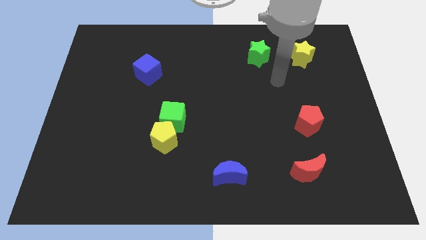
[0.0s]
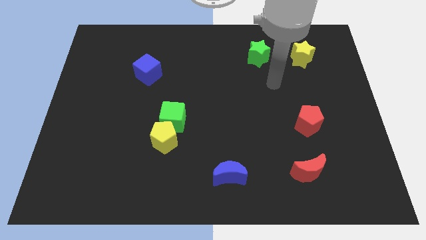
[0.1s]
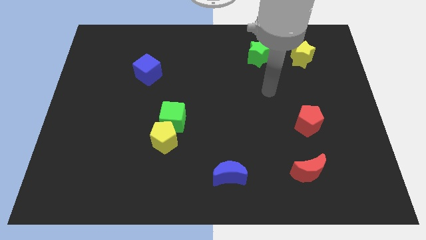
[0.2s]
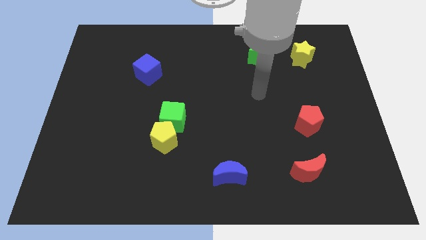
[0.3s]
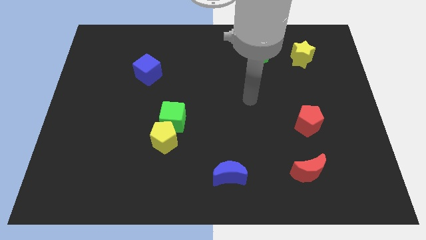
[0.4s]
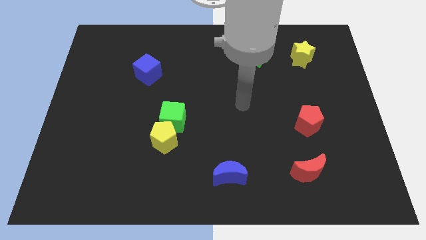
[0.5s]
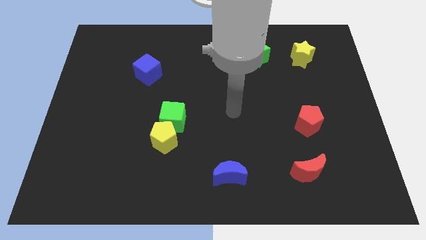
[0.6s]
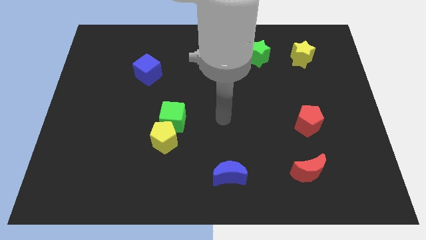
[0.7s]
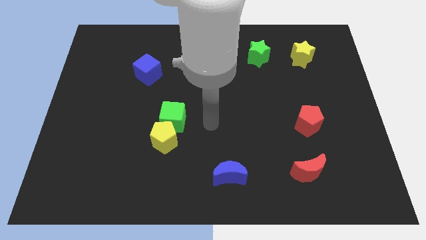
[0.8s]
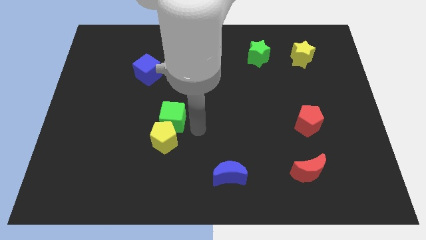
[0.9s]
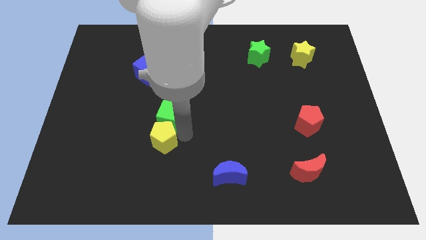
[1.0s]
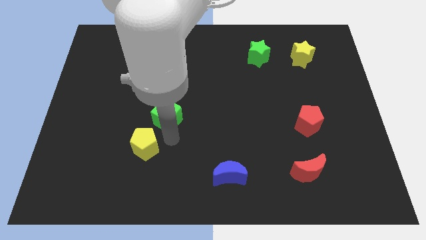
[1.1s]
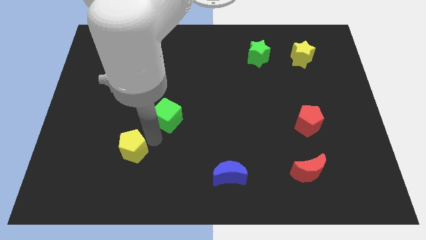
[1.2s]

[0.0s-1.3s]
separate the green cube from the yellow pentagon

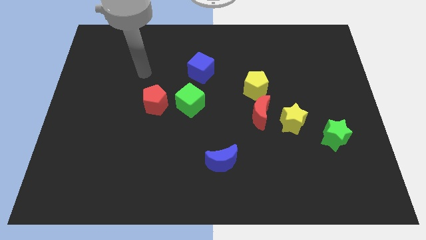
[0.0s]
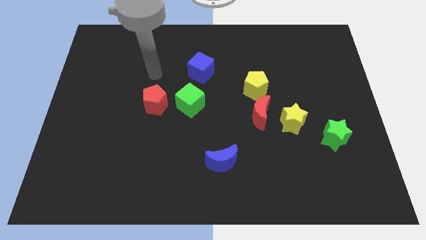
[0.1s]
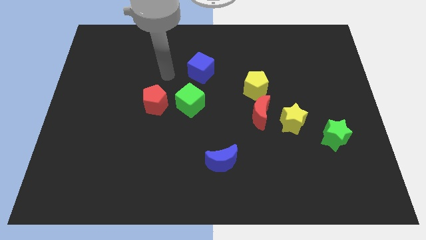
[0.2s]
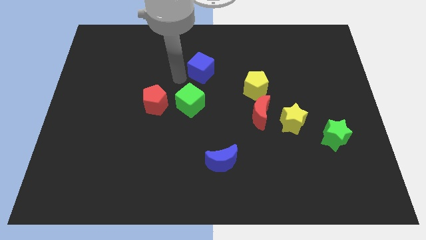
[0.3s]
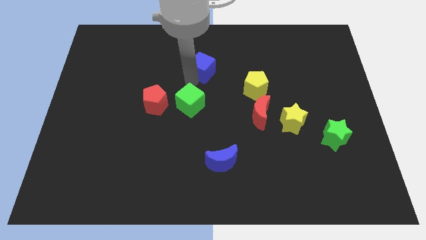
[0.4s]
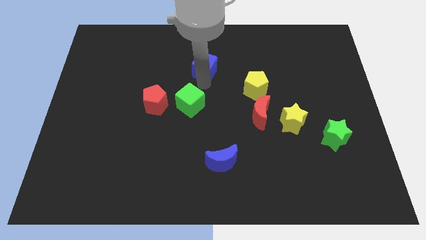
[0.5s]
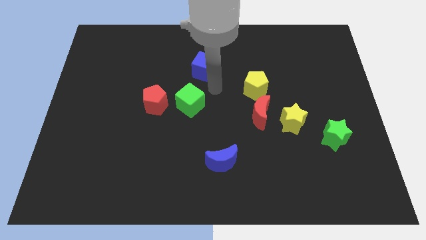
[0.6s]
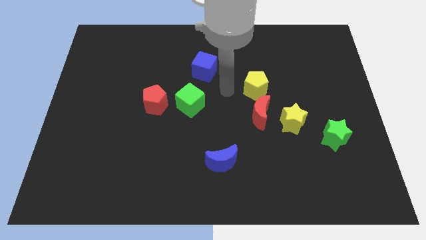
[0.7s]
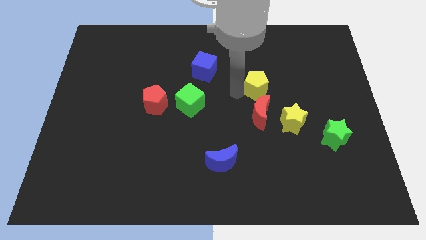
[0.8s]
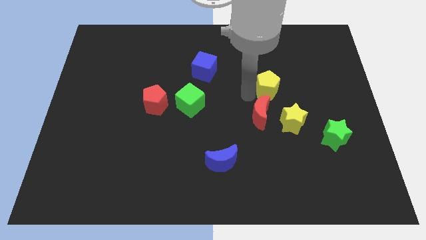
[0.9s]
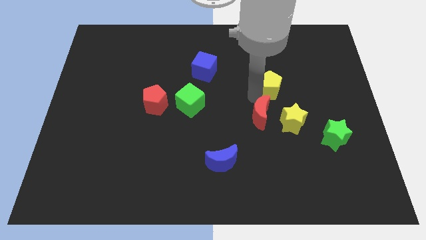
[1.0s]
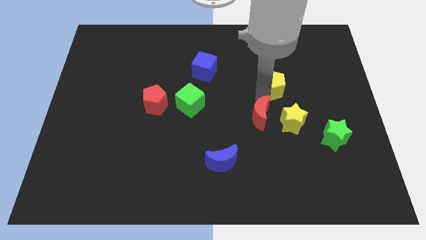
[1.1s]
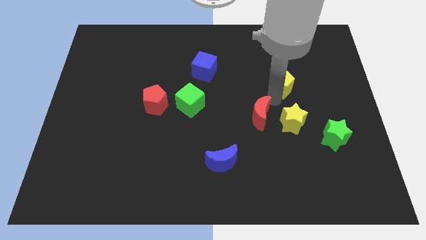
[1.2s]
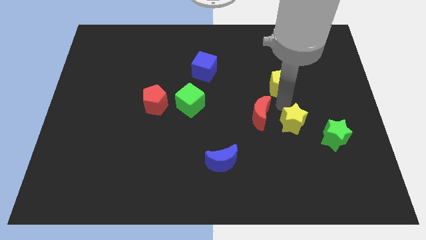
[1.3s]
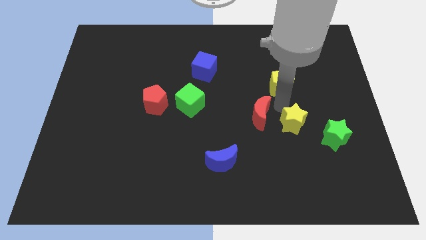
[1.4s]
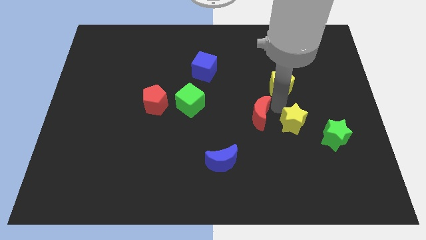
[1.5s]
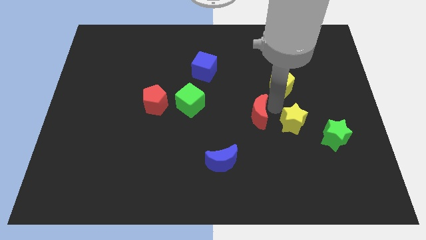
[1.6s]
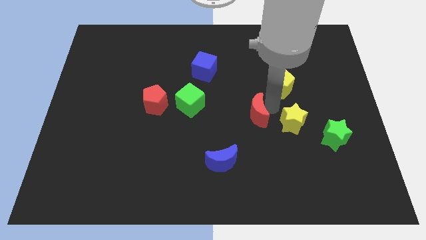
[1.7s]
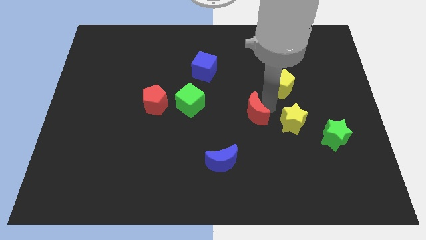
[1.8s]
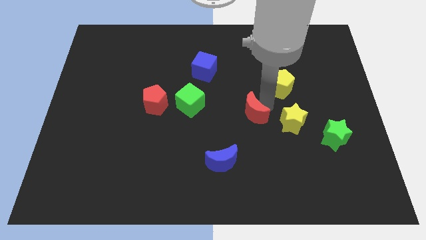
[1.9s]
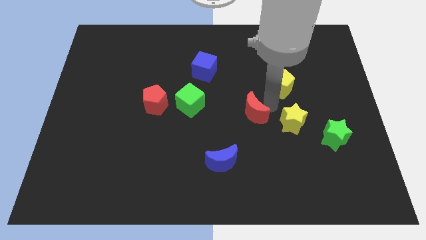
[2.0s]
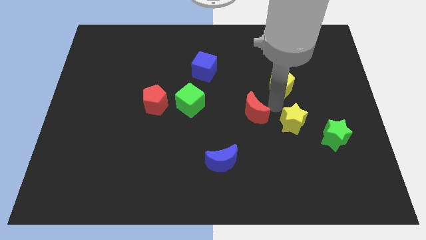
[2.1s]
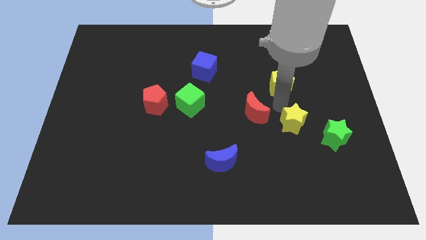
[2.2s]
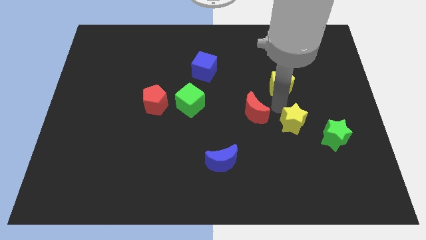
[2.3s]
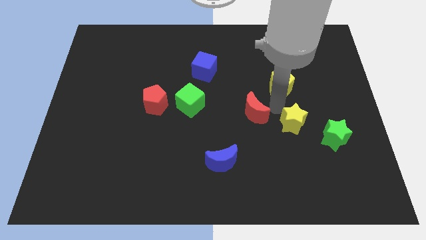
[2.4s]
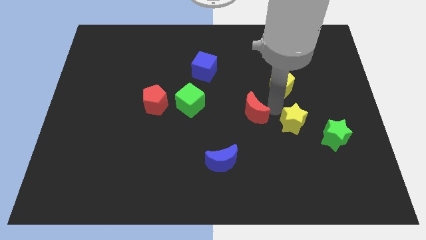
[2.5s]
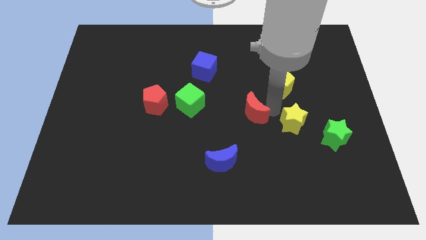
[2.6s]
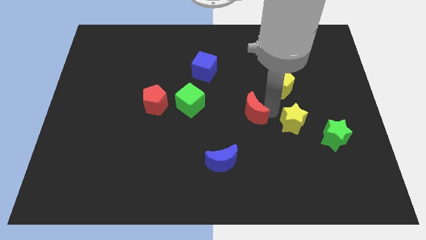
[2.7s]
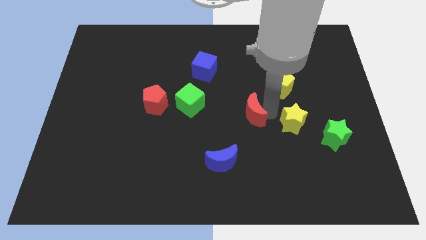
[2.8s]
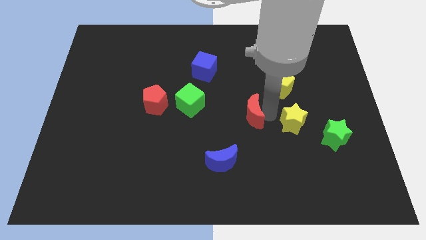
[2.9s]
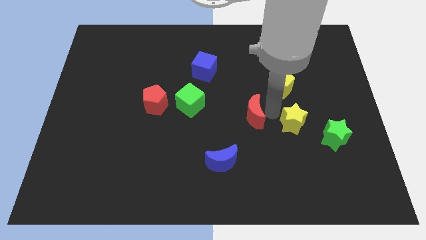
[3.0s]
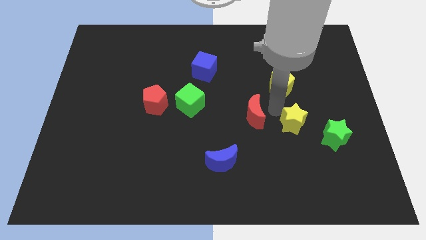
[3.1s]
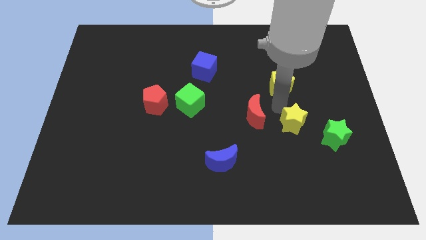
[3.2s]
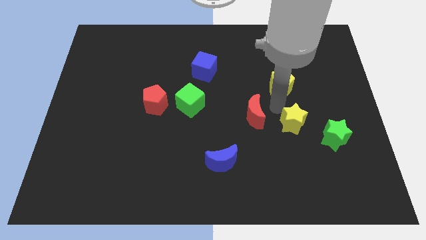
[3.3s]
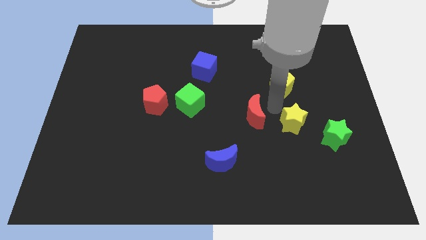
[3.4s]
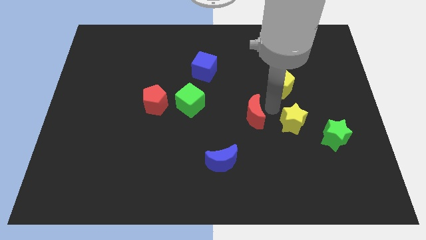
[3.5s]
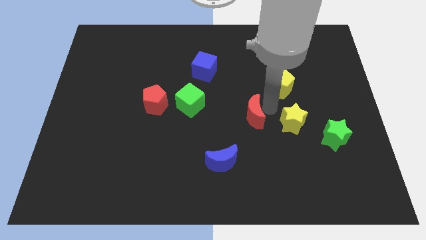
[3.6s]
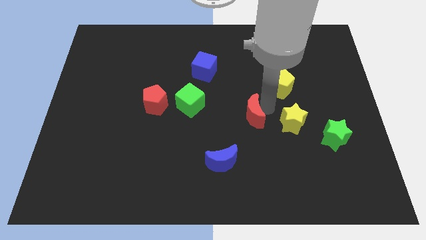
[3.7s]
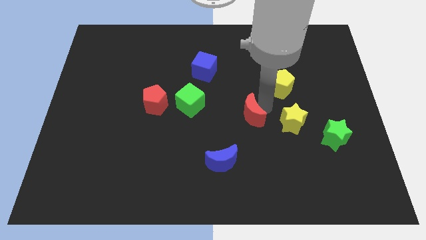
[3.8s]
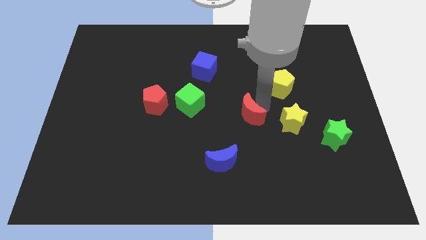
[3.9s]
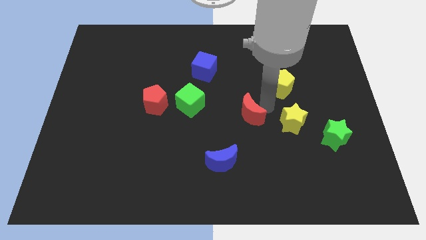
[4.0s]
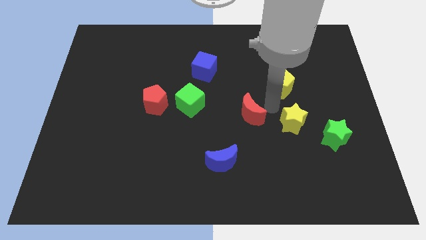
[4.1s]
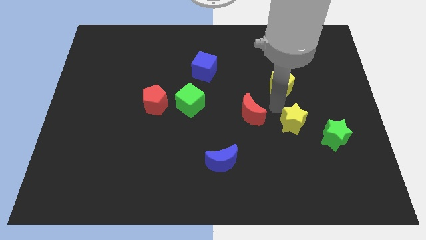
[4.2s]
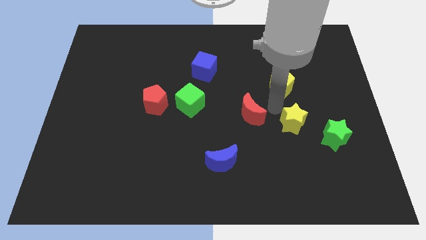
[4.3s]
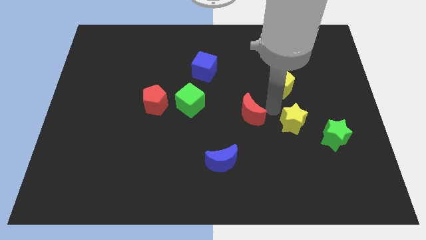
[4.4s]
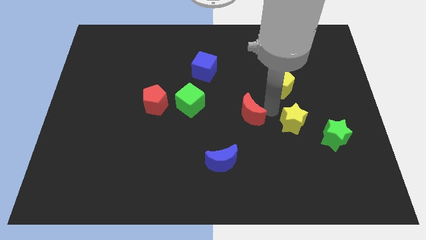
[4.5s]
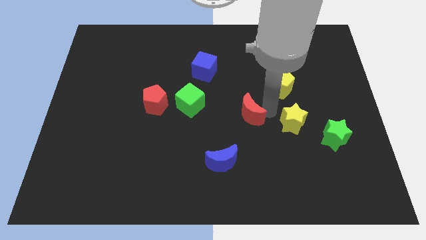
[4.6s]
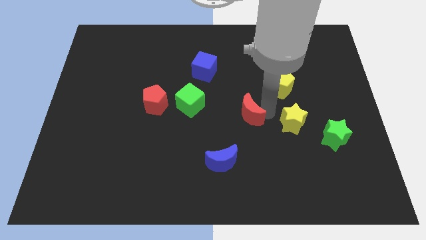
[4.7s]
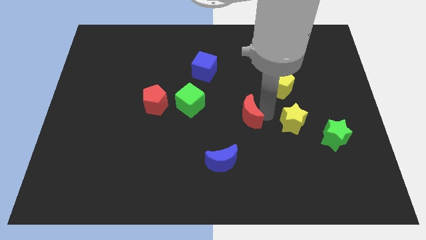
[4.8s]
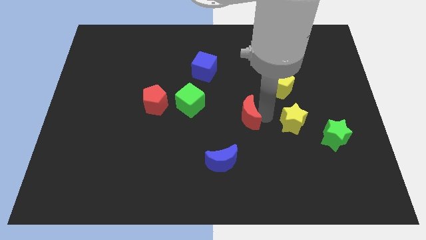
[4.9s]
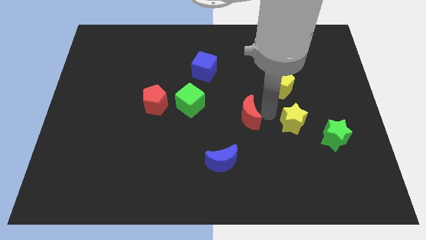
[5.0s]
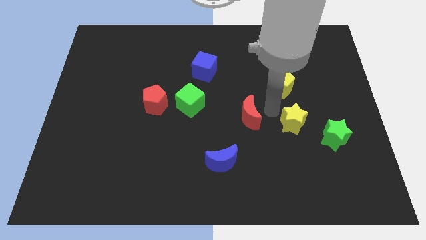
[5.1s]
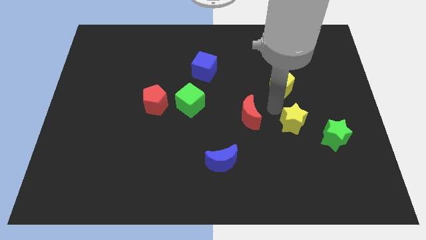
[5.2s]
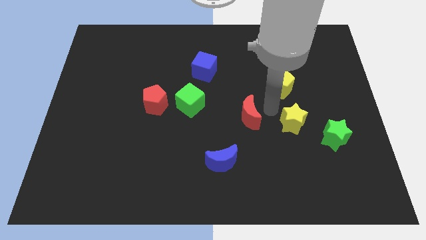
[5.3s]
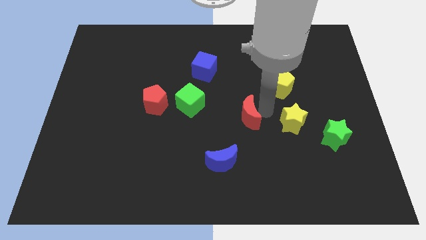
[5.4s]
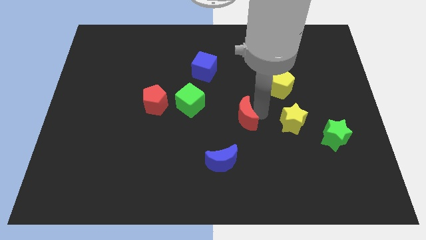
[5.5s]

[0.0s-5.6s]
separate the red moon from the yellow star and yellow pentagon

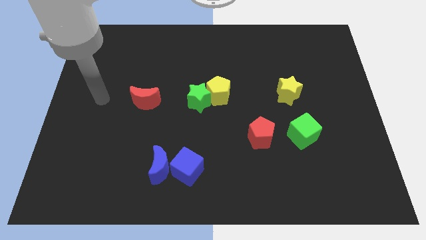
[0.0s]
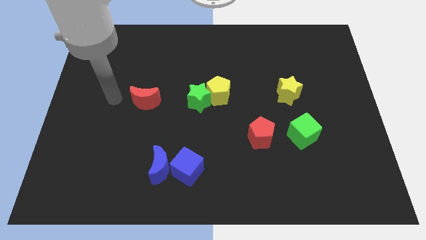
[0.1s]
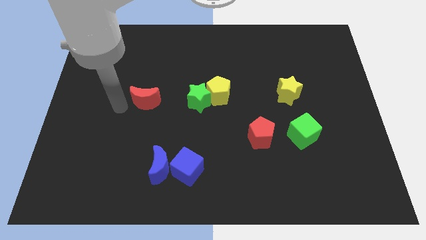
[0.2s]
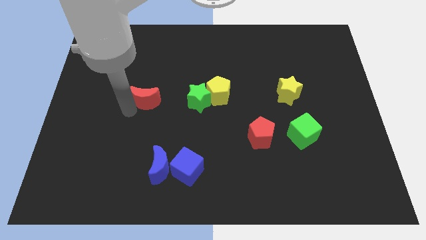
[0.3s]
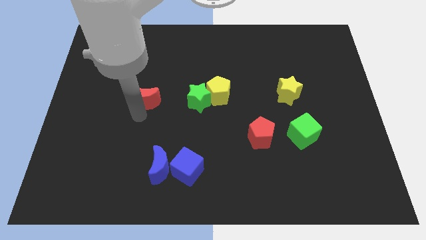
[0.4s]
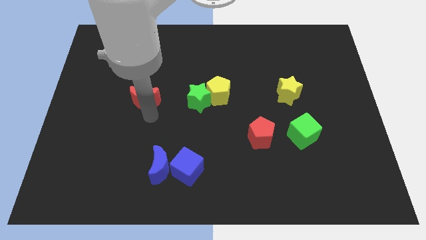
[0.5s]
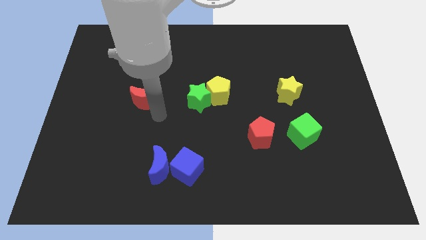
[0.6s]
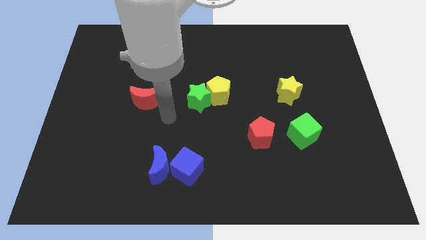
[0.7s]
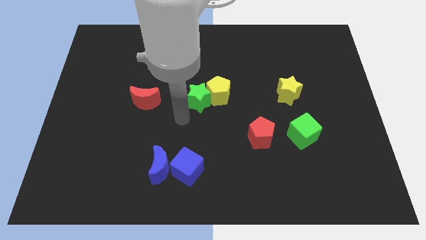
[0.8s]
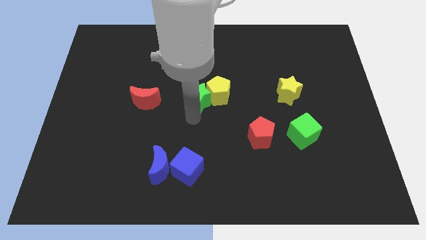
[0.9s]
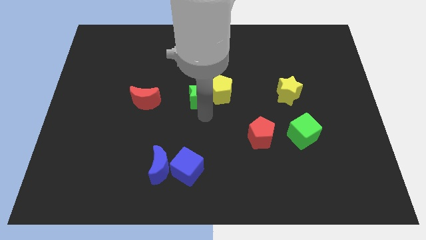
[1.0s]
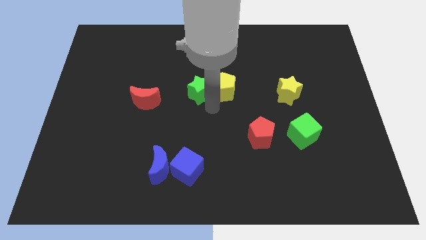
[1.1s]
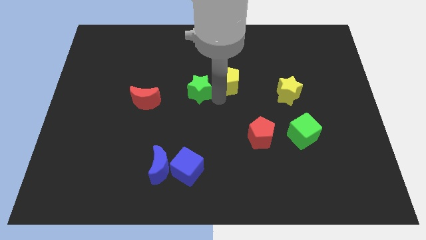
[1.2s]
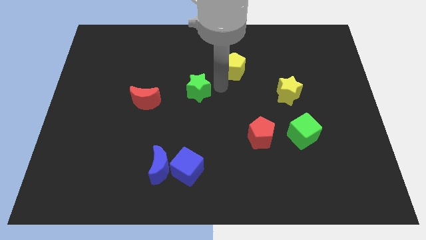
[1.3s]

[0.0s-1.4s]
pull the green star apart from the yellow pentagon

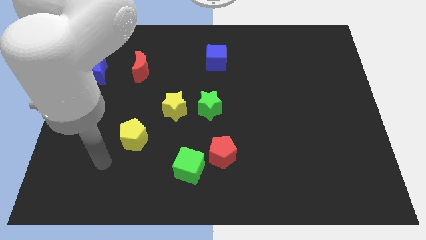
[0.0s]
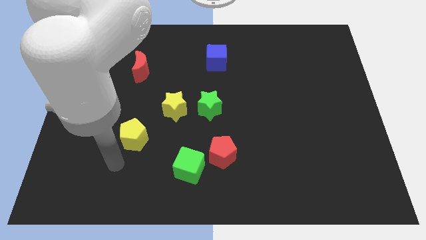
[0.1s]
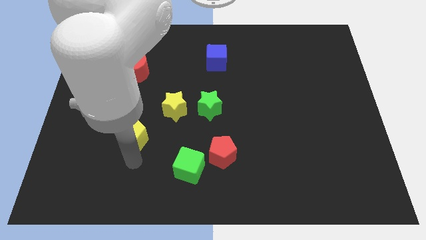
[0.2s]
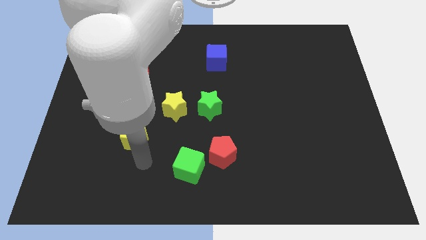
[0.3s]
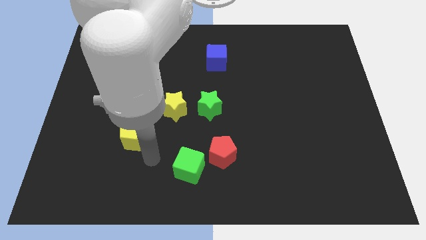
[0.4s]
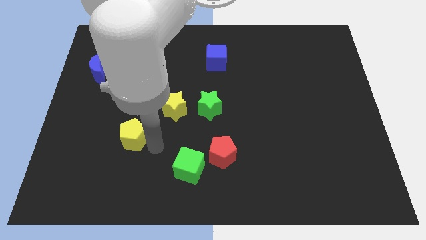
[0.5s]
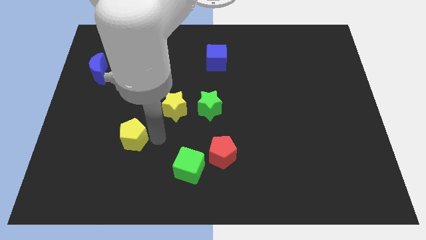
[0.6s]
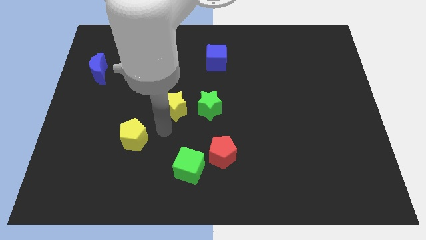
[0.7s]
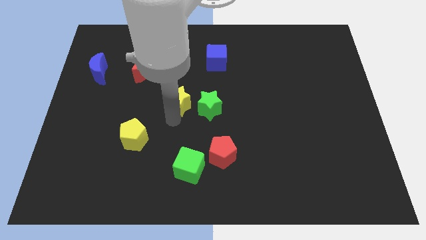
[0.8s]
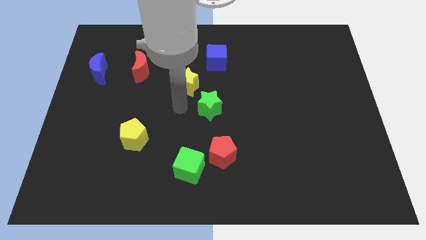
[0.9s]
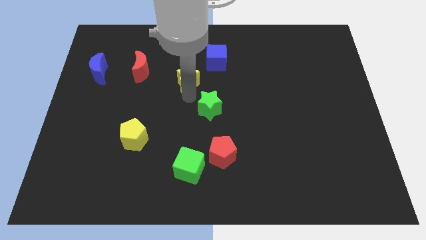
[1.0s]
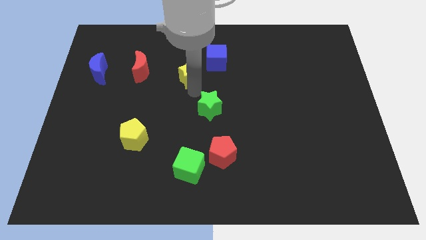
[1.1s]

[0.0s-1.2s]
separate the green star from the yellow star

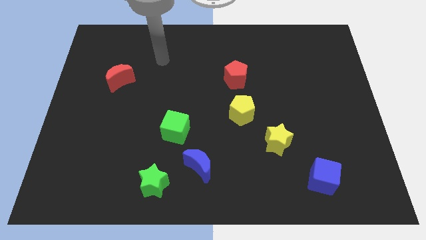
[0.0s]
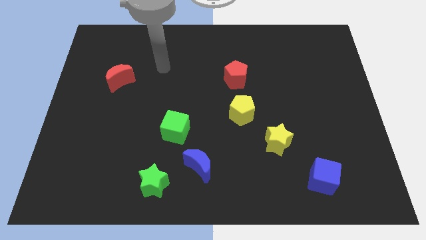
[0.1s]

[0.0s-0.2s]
move the blue moon away from the green star
